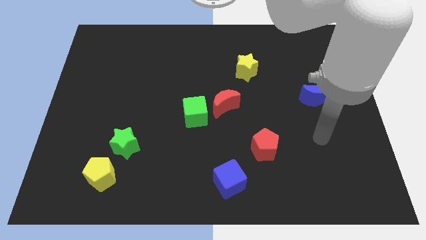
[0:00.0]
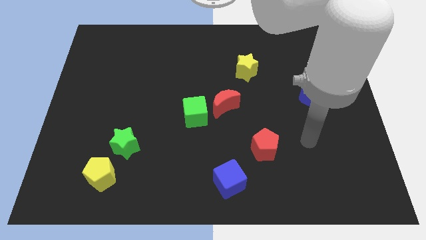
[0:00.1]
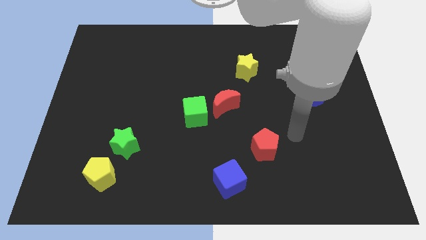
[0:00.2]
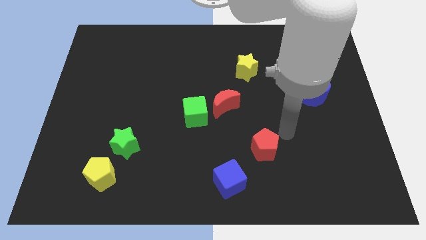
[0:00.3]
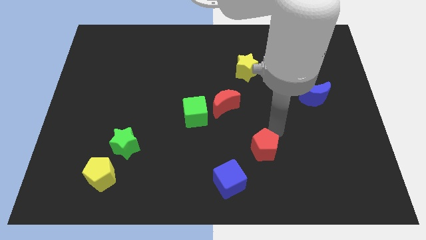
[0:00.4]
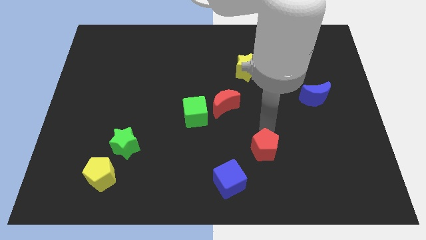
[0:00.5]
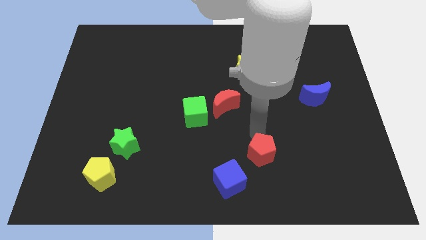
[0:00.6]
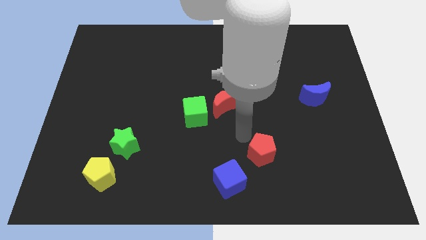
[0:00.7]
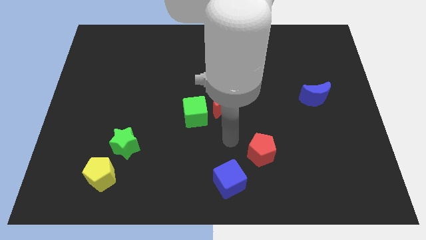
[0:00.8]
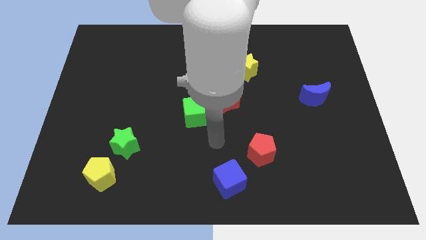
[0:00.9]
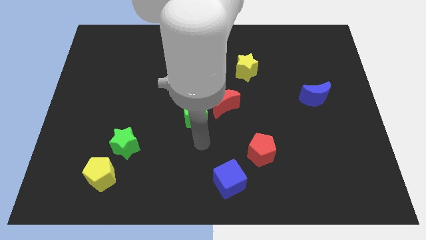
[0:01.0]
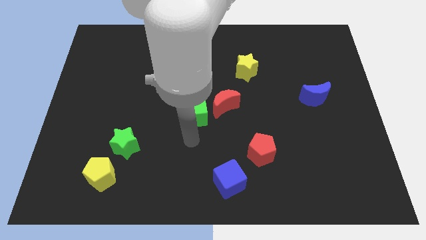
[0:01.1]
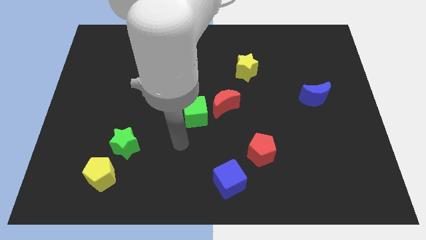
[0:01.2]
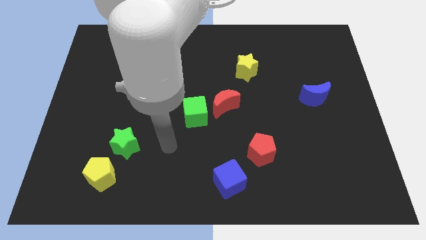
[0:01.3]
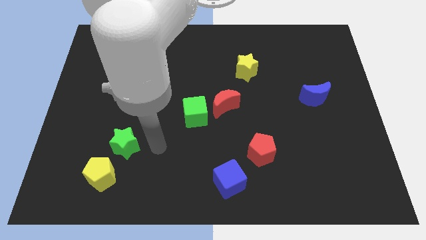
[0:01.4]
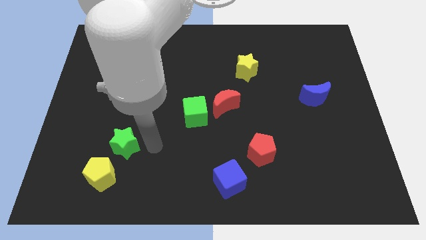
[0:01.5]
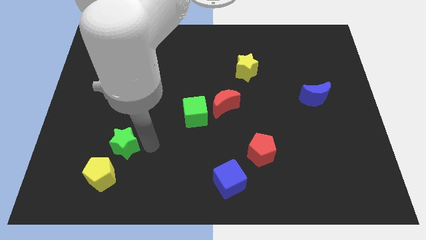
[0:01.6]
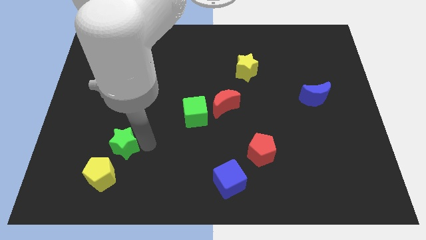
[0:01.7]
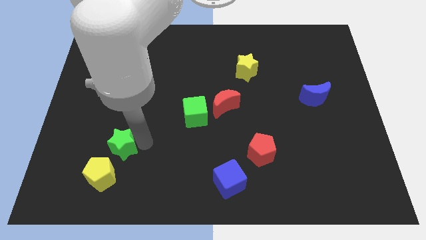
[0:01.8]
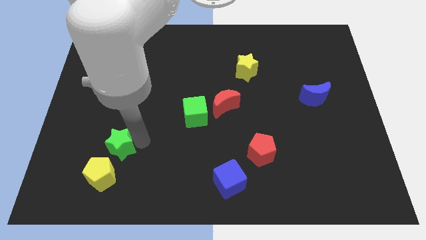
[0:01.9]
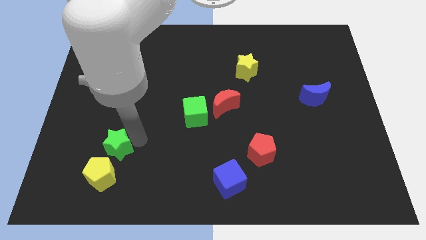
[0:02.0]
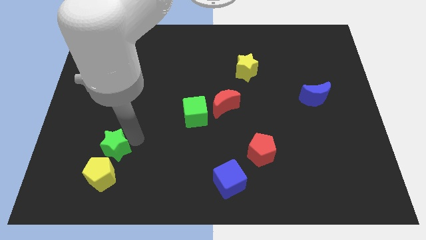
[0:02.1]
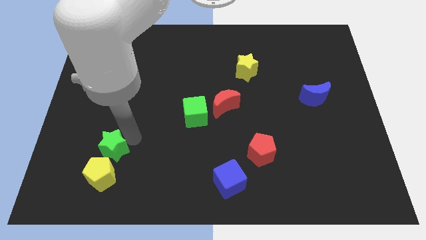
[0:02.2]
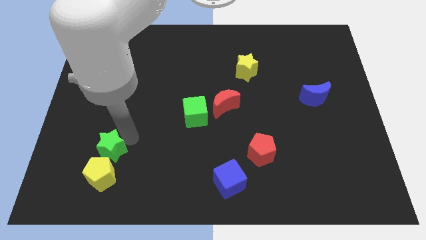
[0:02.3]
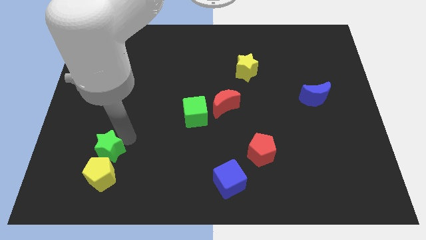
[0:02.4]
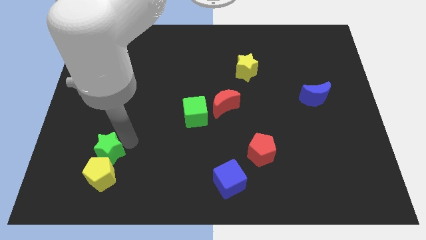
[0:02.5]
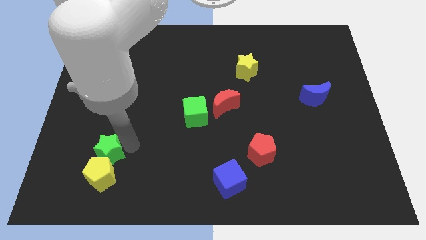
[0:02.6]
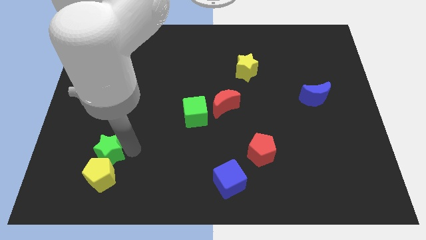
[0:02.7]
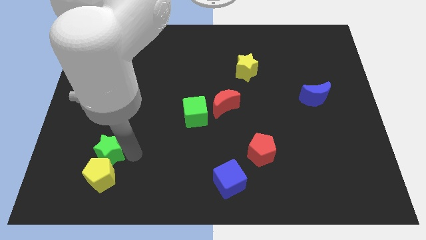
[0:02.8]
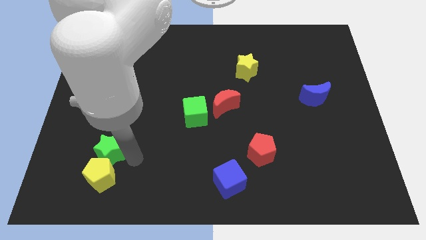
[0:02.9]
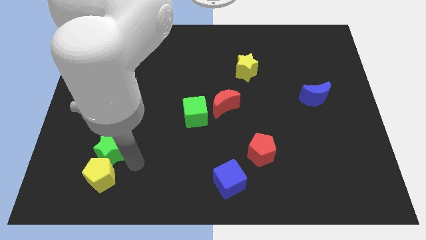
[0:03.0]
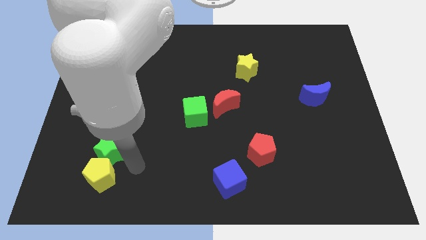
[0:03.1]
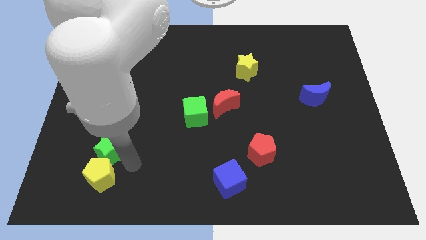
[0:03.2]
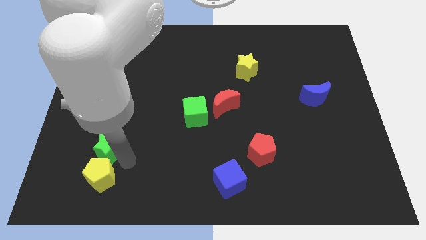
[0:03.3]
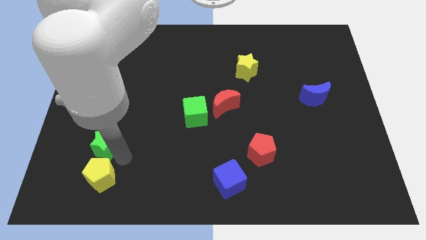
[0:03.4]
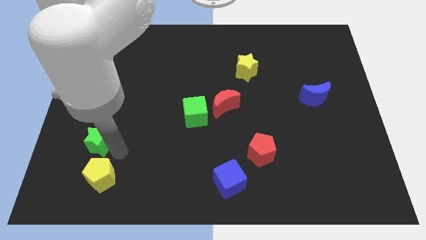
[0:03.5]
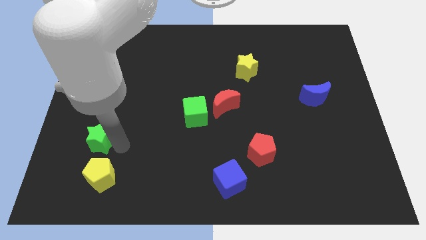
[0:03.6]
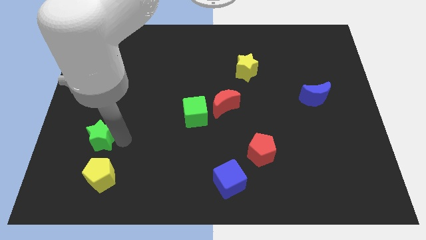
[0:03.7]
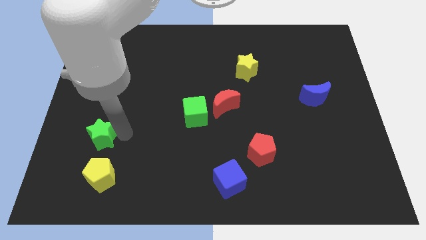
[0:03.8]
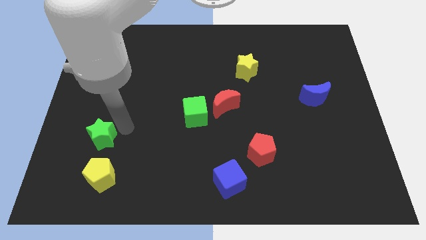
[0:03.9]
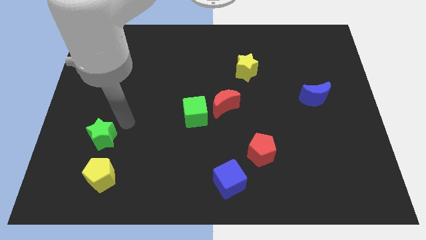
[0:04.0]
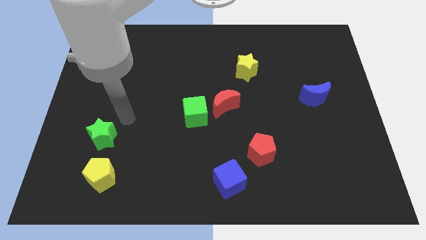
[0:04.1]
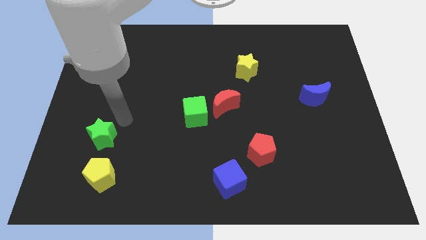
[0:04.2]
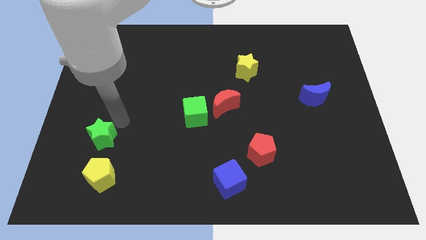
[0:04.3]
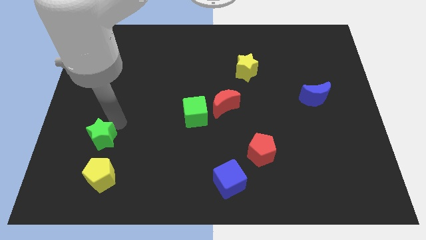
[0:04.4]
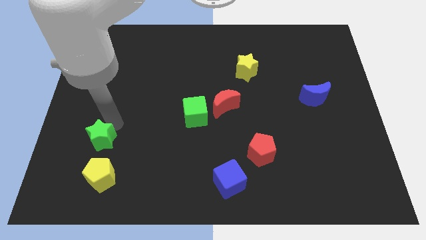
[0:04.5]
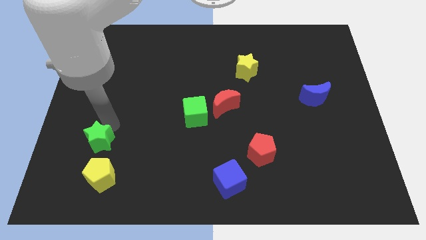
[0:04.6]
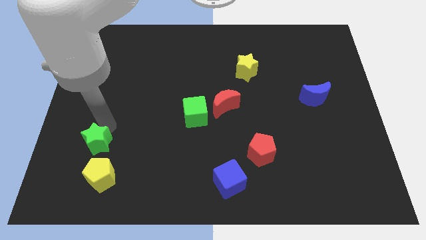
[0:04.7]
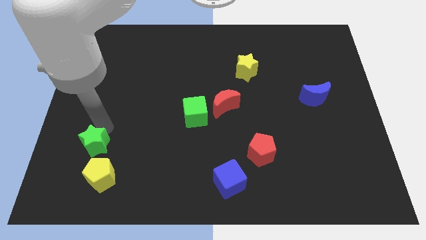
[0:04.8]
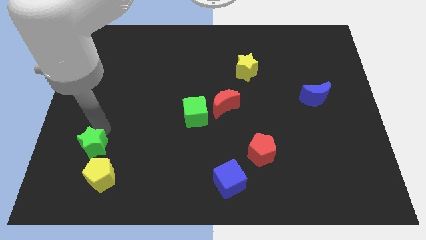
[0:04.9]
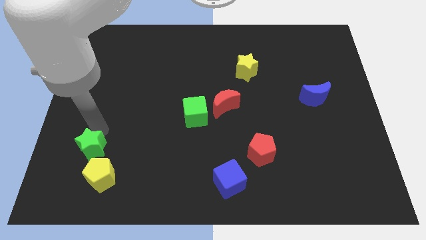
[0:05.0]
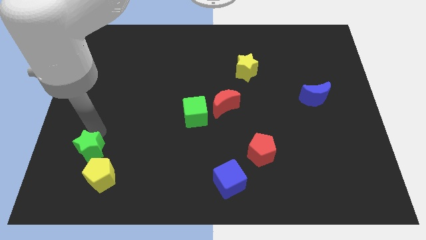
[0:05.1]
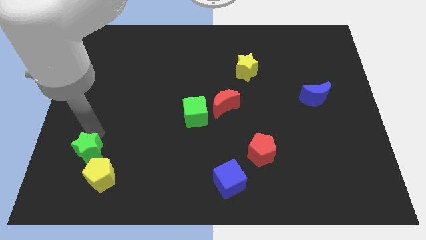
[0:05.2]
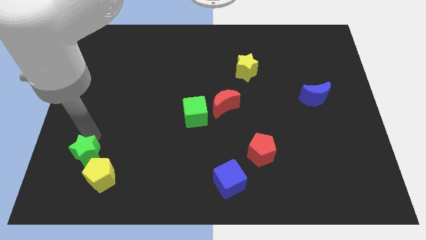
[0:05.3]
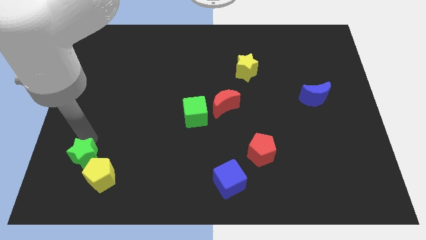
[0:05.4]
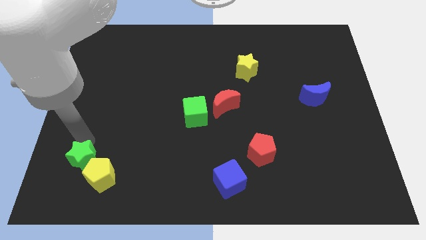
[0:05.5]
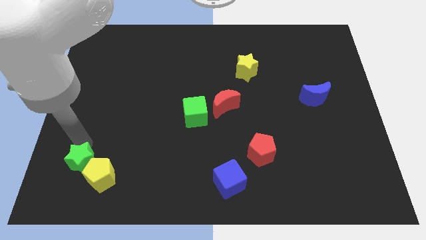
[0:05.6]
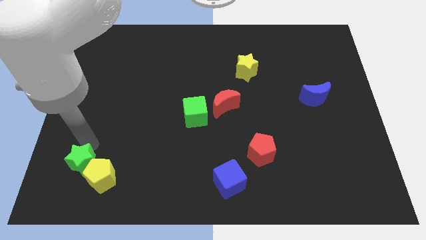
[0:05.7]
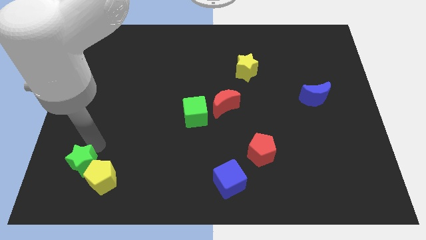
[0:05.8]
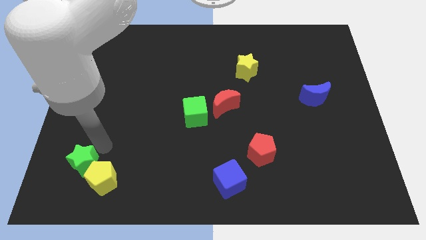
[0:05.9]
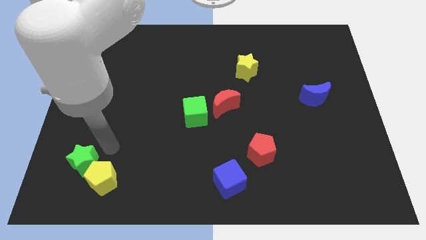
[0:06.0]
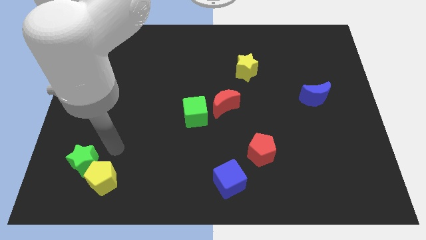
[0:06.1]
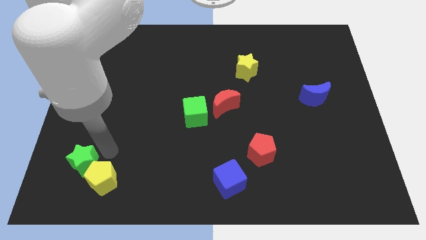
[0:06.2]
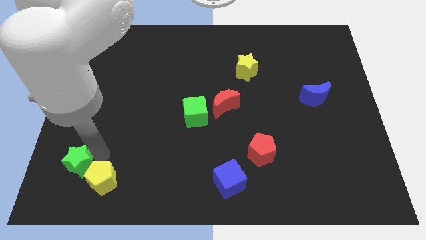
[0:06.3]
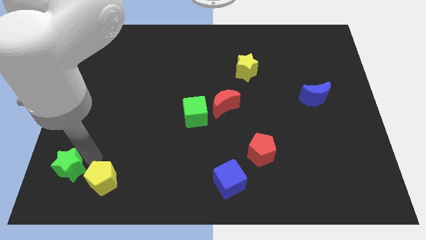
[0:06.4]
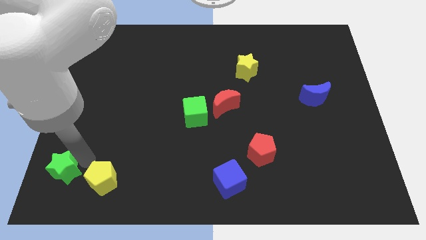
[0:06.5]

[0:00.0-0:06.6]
move the green star to the bottom left
